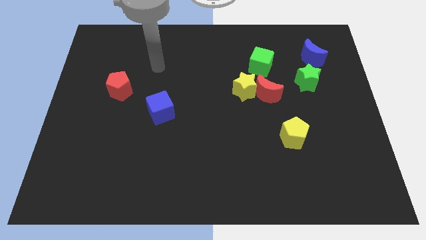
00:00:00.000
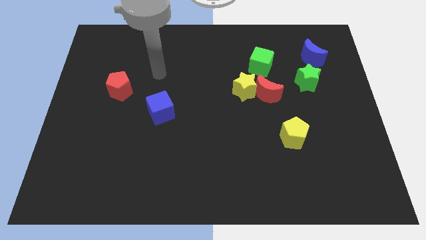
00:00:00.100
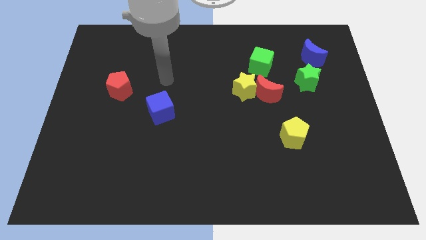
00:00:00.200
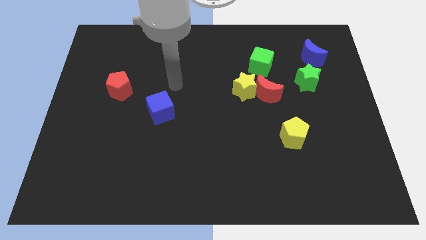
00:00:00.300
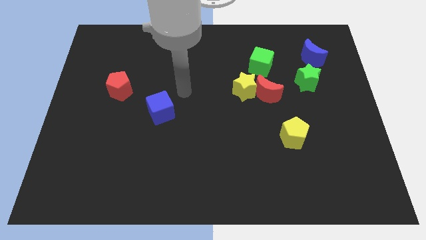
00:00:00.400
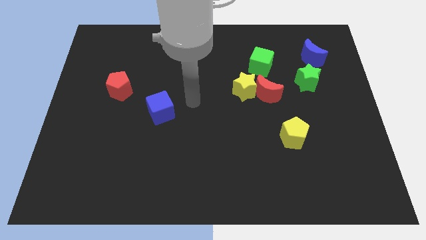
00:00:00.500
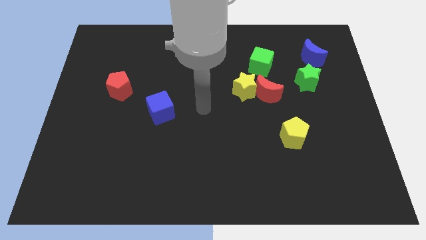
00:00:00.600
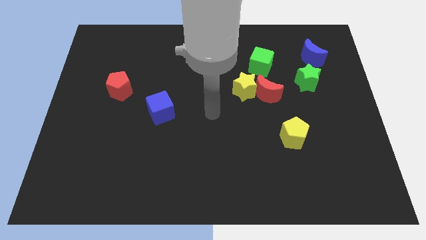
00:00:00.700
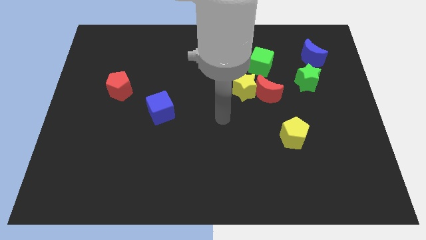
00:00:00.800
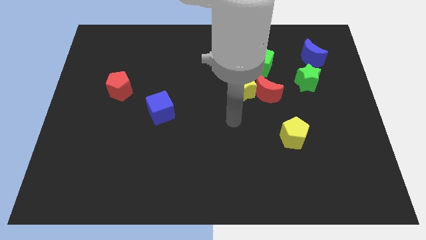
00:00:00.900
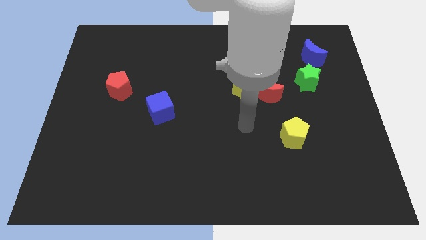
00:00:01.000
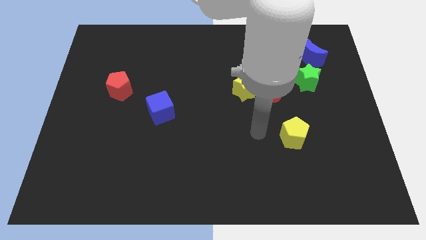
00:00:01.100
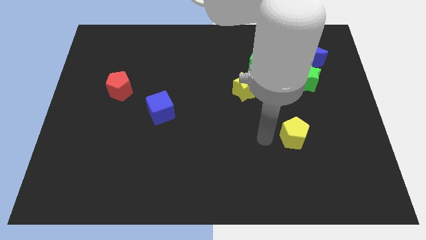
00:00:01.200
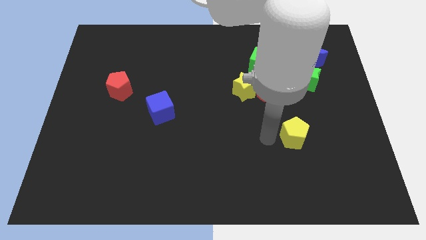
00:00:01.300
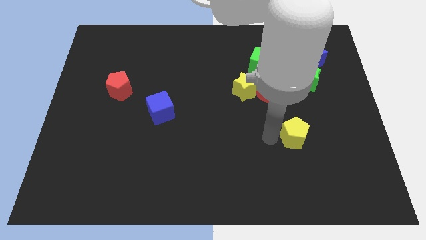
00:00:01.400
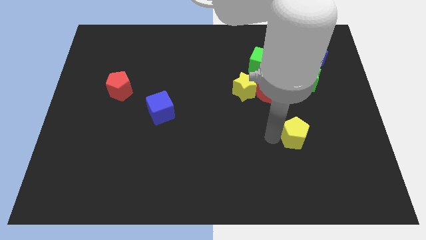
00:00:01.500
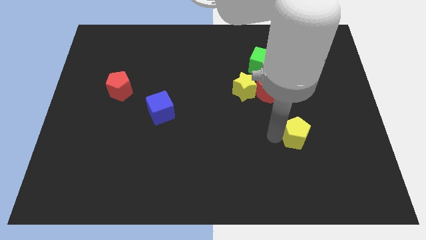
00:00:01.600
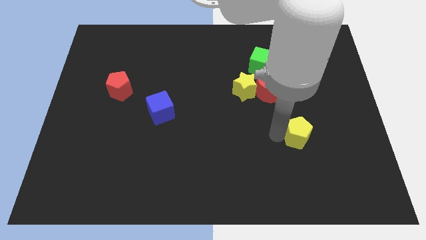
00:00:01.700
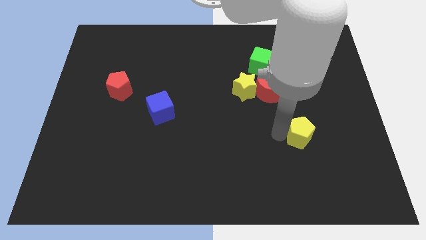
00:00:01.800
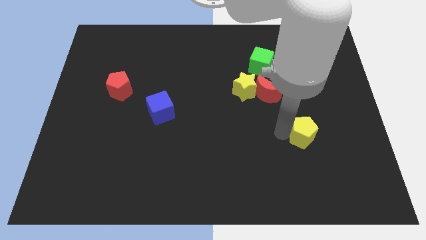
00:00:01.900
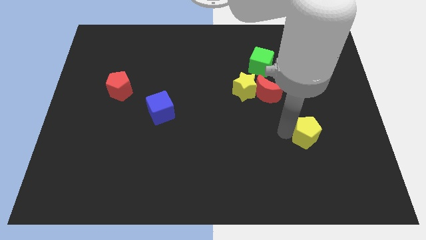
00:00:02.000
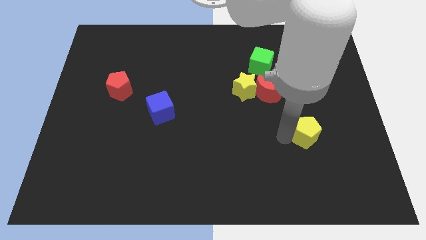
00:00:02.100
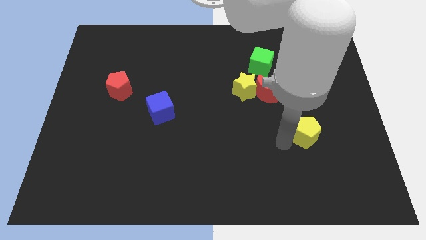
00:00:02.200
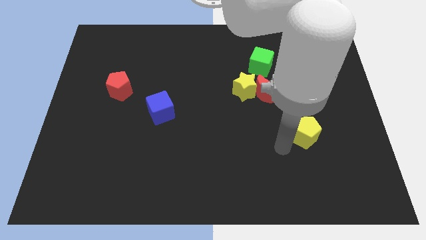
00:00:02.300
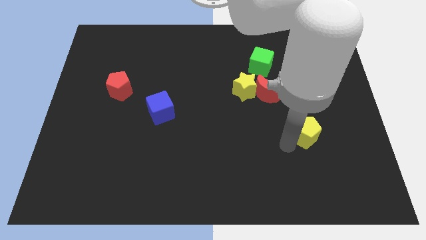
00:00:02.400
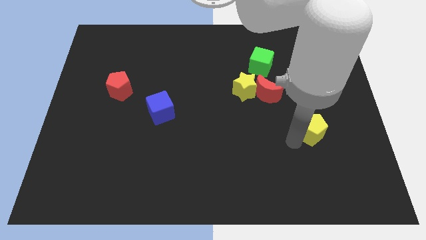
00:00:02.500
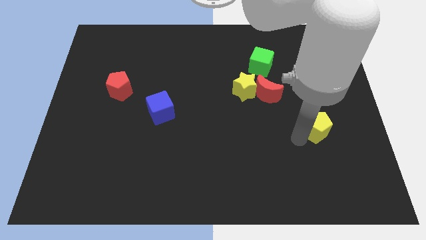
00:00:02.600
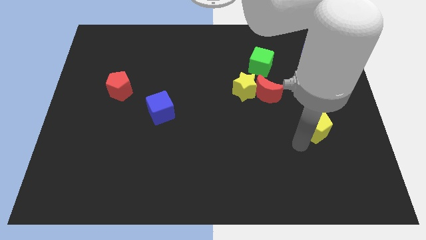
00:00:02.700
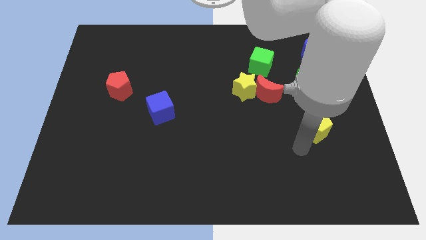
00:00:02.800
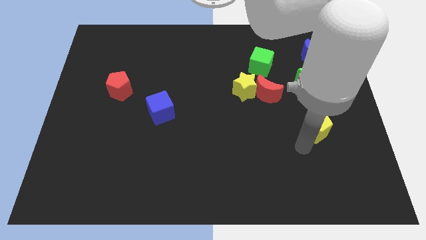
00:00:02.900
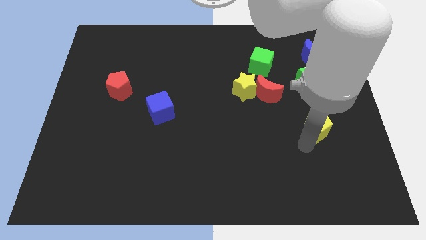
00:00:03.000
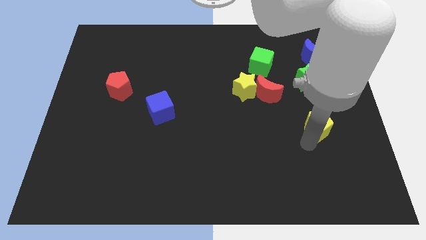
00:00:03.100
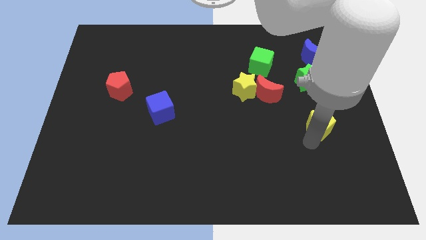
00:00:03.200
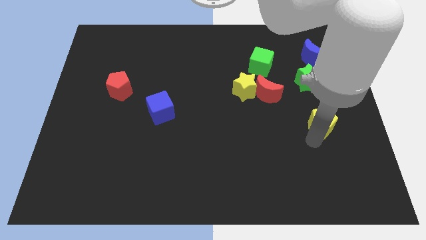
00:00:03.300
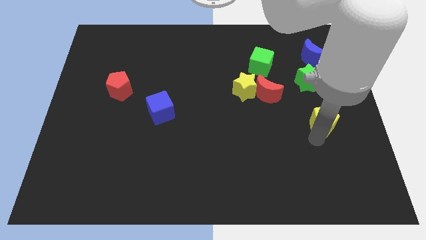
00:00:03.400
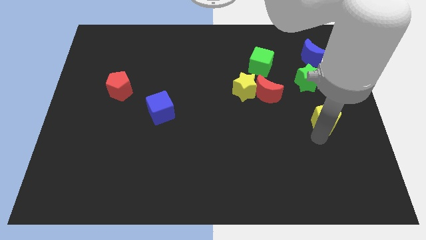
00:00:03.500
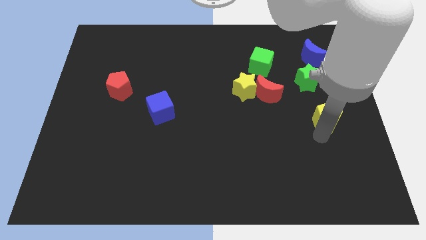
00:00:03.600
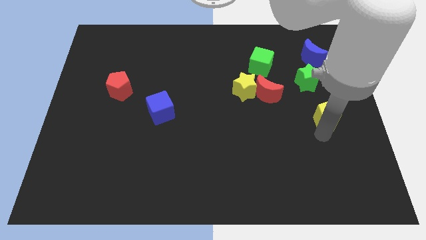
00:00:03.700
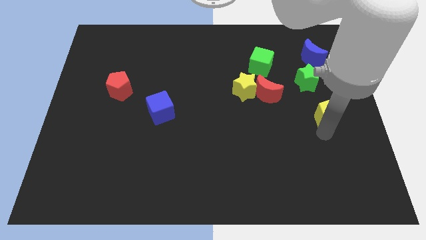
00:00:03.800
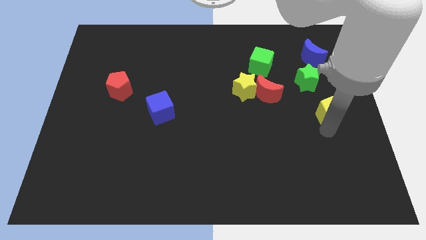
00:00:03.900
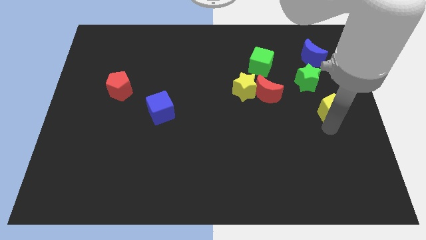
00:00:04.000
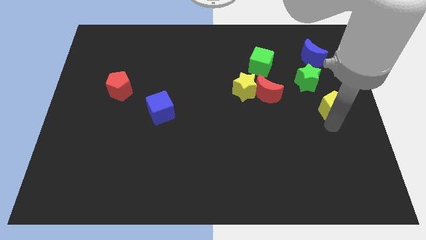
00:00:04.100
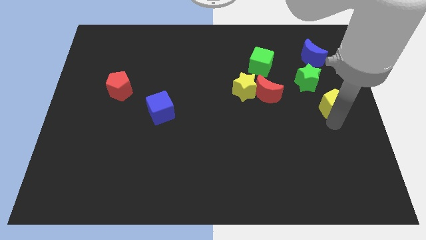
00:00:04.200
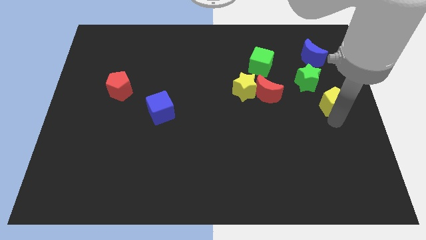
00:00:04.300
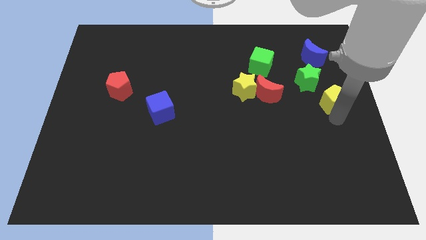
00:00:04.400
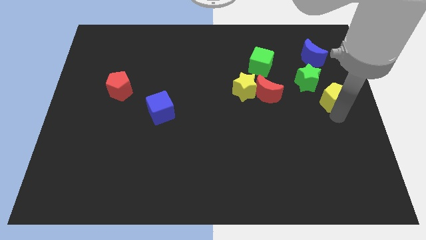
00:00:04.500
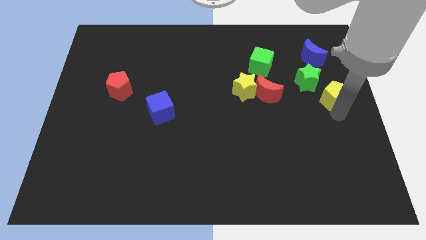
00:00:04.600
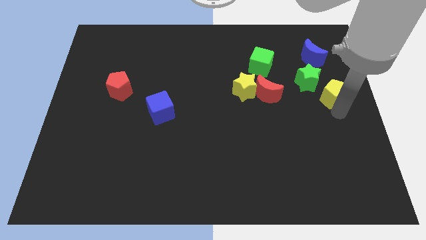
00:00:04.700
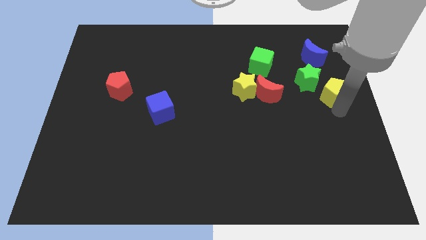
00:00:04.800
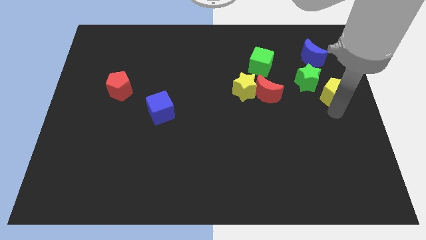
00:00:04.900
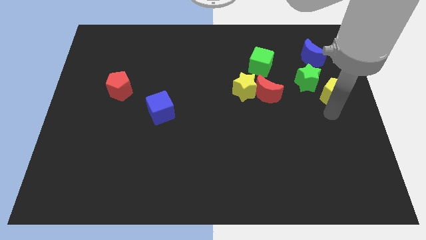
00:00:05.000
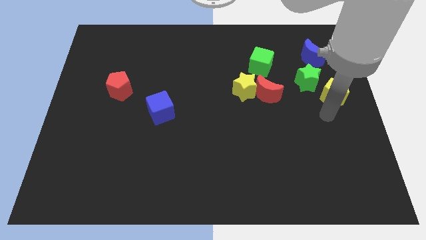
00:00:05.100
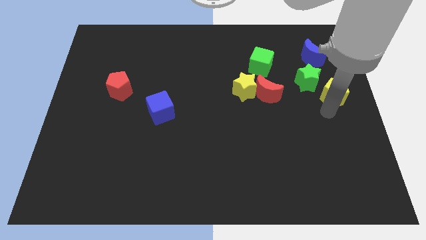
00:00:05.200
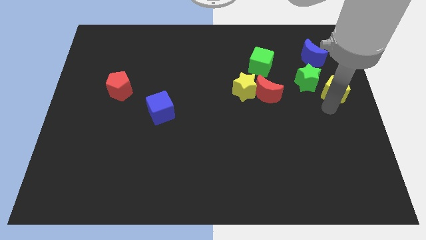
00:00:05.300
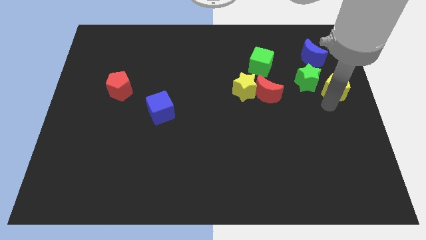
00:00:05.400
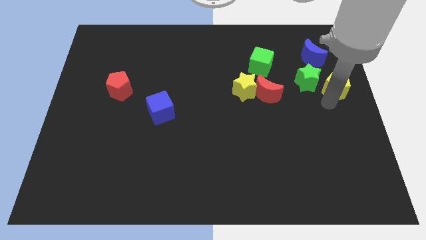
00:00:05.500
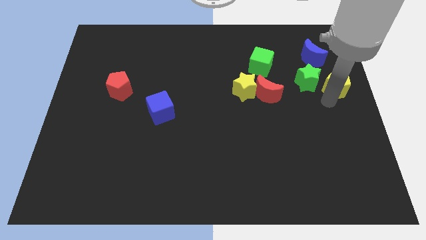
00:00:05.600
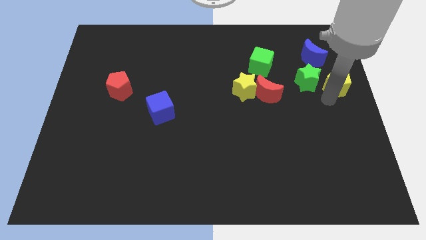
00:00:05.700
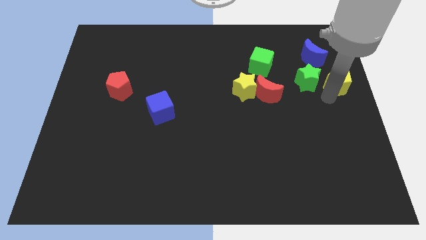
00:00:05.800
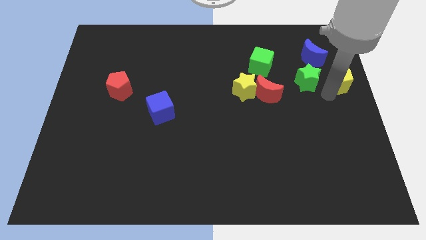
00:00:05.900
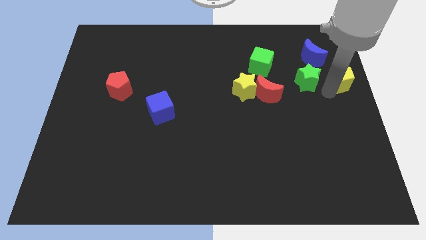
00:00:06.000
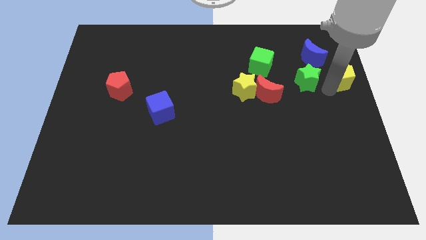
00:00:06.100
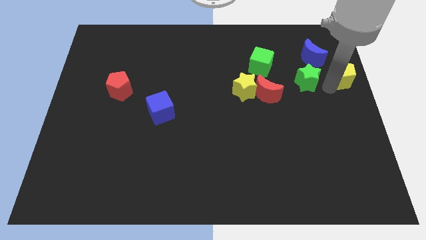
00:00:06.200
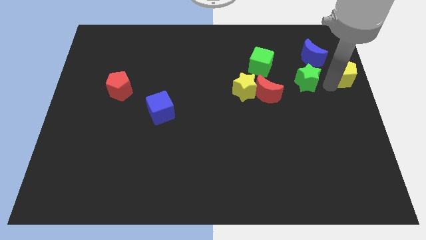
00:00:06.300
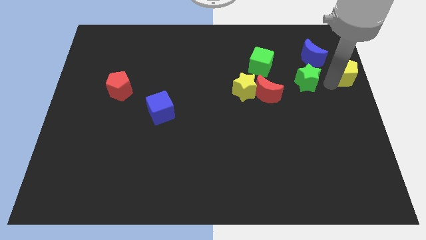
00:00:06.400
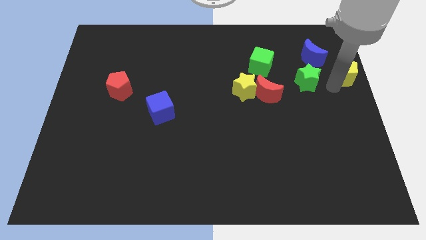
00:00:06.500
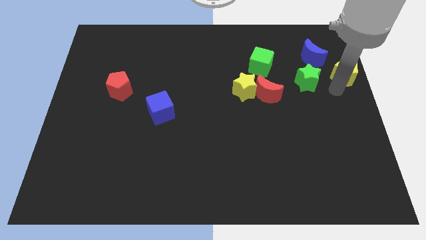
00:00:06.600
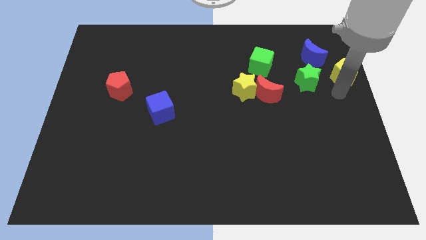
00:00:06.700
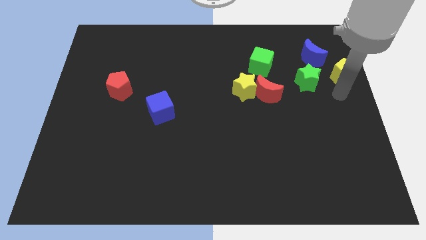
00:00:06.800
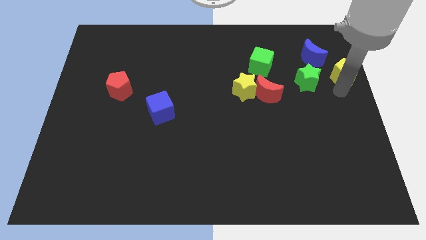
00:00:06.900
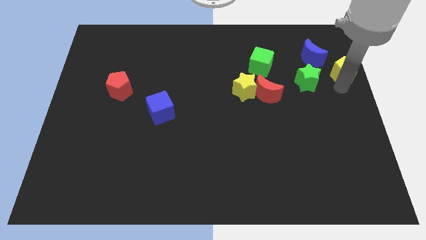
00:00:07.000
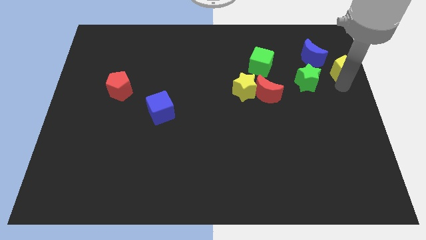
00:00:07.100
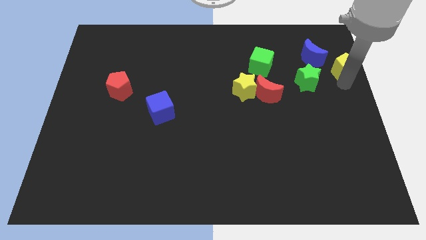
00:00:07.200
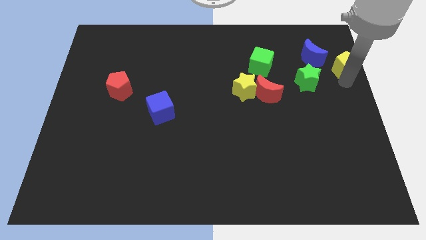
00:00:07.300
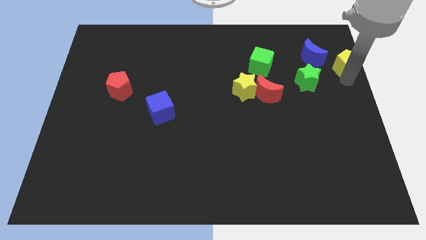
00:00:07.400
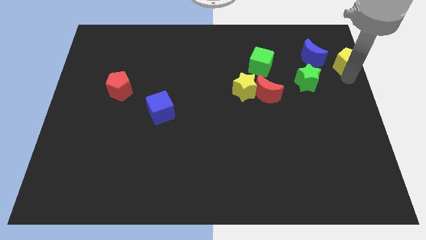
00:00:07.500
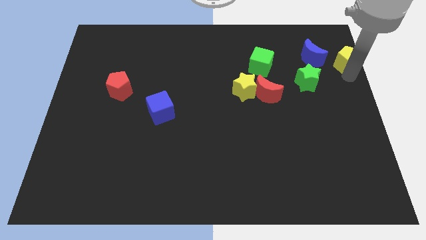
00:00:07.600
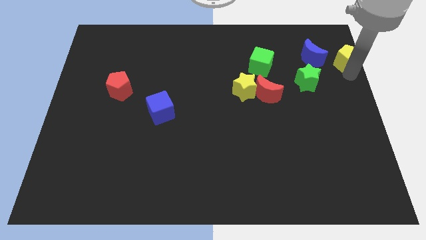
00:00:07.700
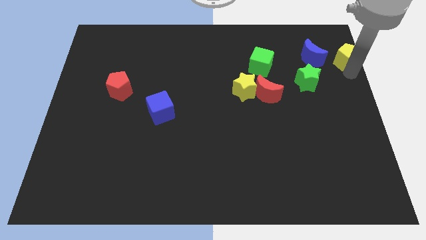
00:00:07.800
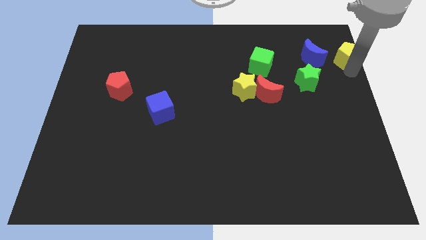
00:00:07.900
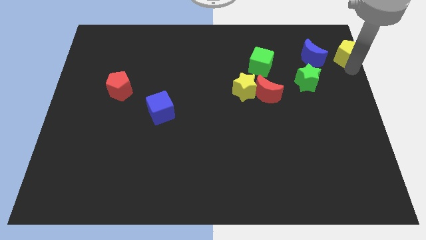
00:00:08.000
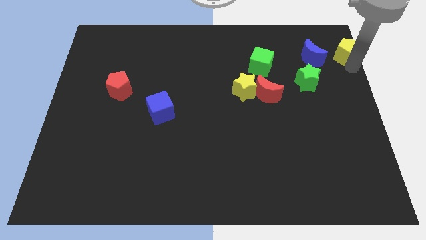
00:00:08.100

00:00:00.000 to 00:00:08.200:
put the yellow pentagon to the top right of the board
